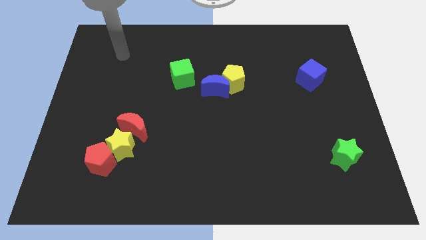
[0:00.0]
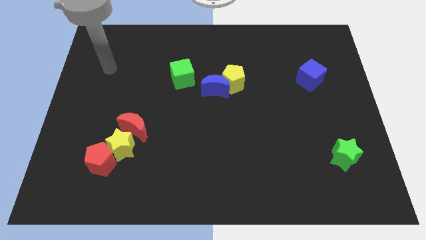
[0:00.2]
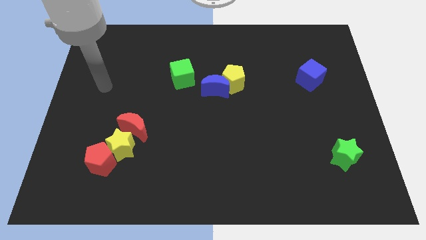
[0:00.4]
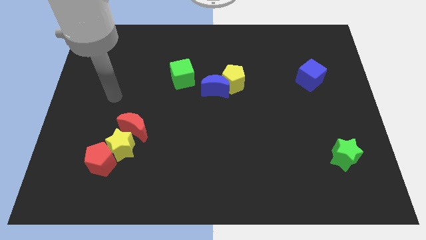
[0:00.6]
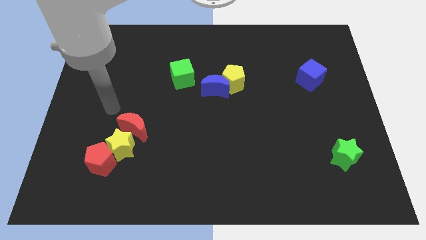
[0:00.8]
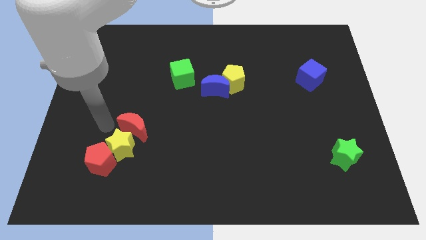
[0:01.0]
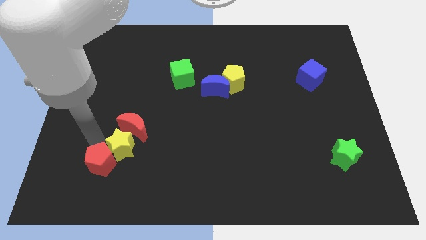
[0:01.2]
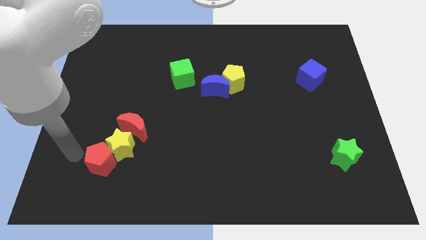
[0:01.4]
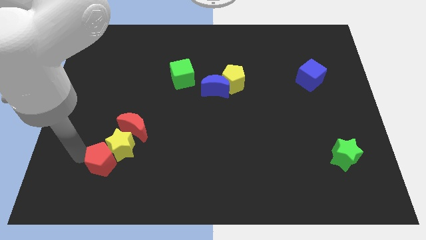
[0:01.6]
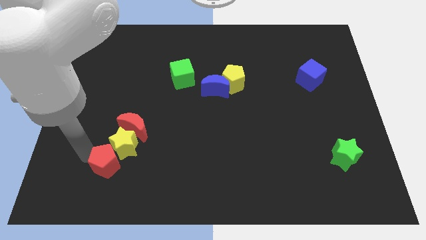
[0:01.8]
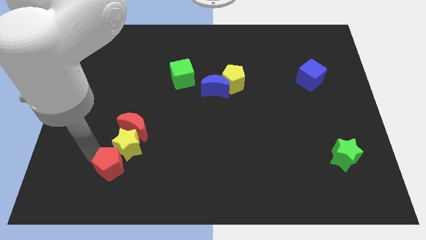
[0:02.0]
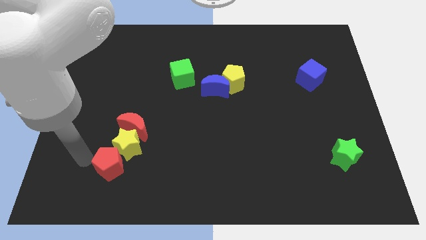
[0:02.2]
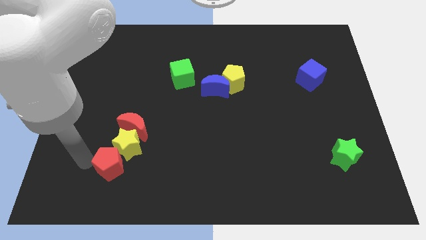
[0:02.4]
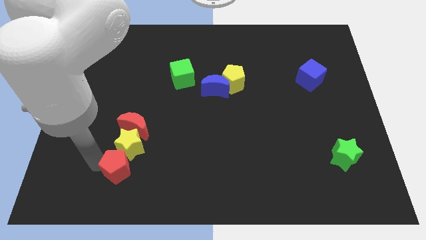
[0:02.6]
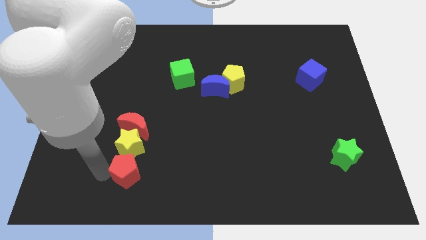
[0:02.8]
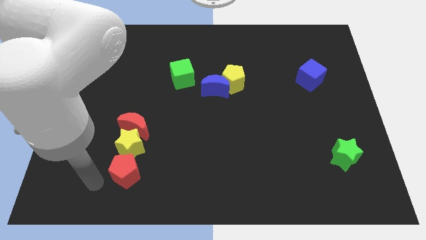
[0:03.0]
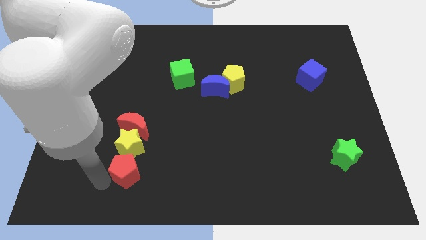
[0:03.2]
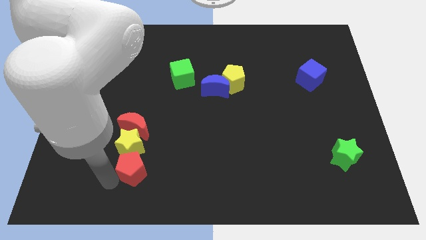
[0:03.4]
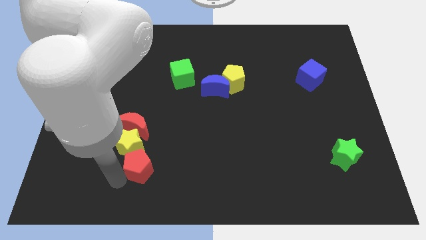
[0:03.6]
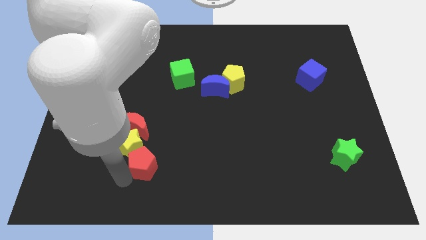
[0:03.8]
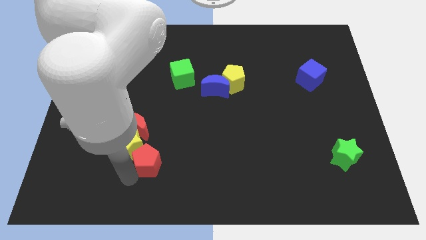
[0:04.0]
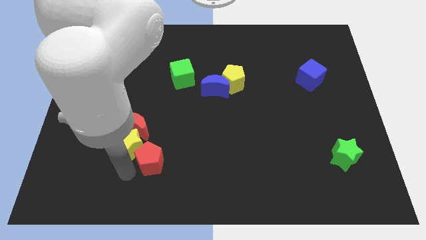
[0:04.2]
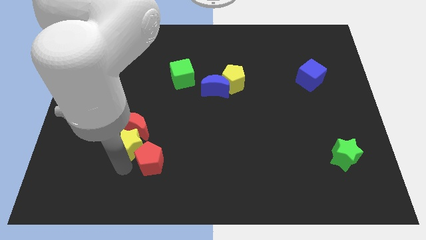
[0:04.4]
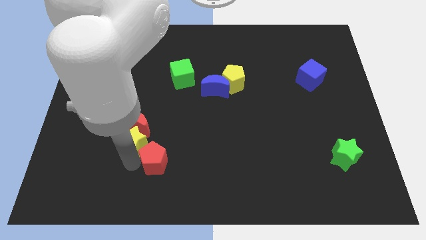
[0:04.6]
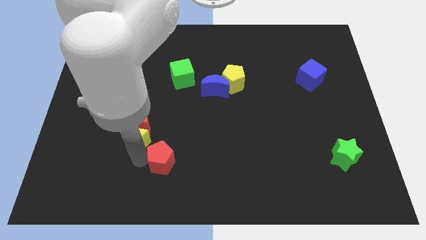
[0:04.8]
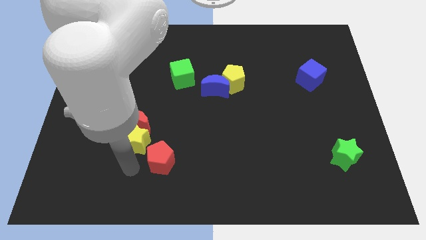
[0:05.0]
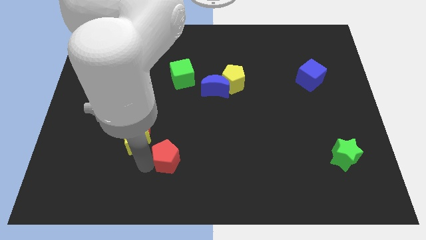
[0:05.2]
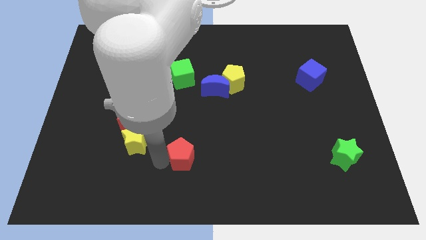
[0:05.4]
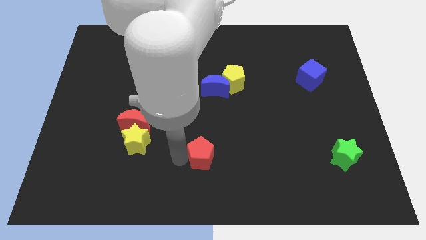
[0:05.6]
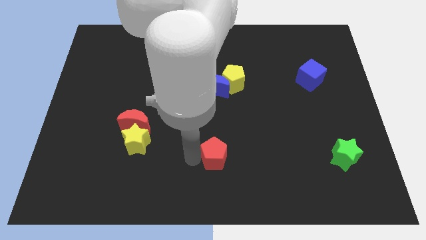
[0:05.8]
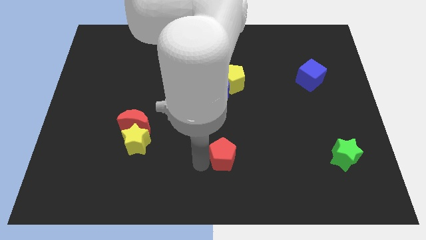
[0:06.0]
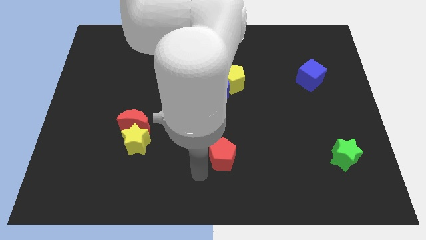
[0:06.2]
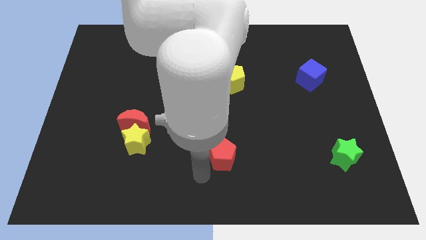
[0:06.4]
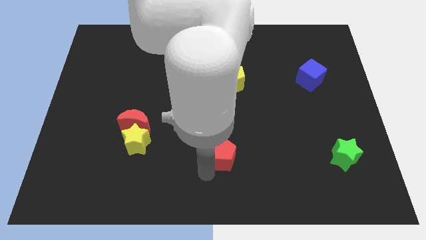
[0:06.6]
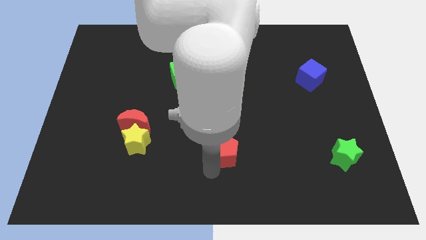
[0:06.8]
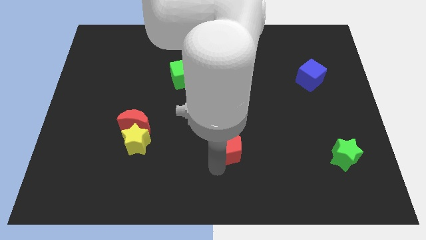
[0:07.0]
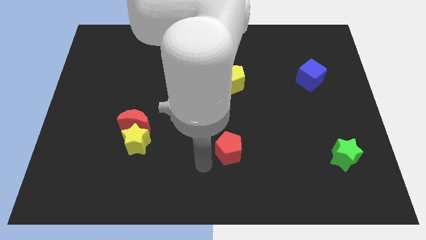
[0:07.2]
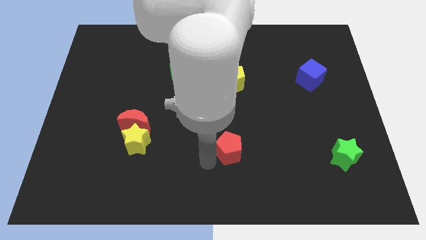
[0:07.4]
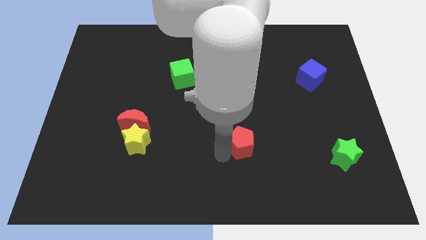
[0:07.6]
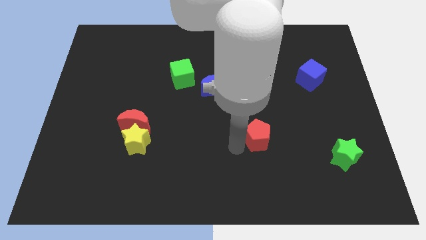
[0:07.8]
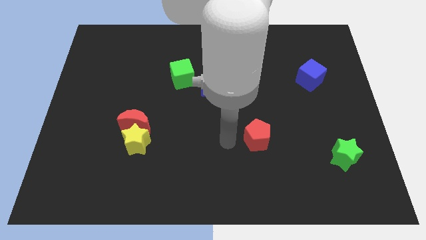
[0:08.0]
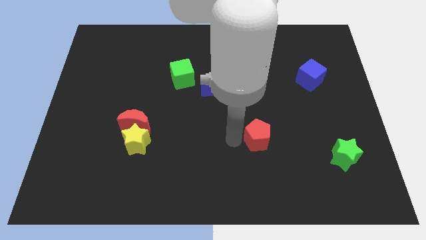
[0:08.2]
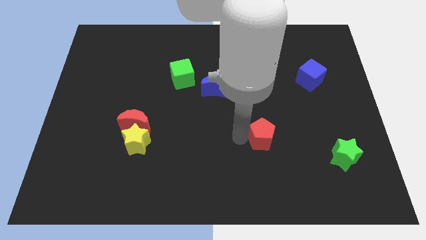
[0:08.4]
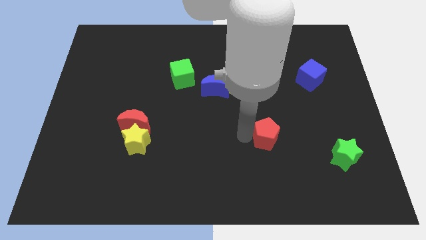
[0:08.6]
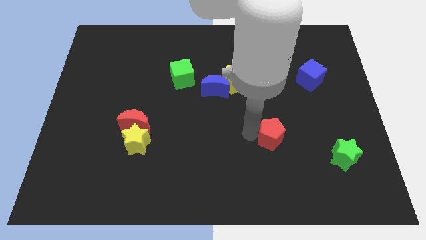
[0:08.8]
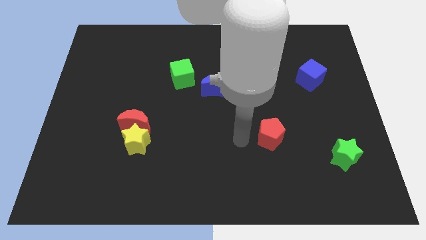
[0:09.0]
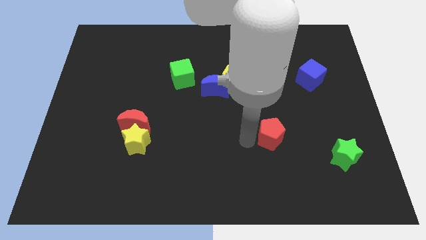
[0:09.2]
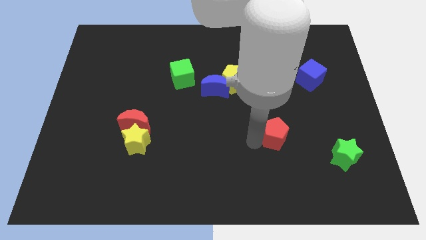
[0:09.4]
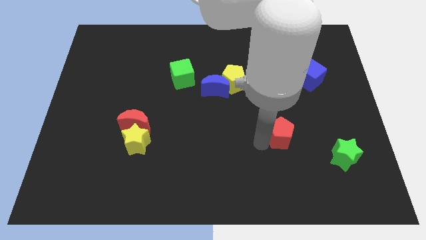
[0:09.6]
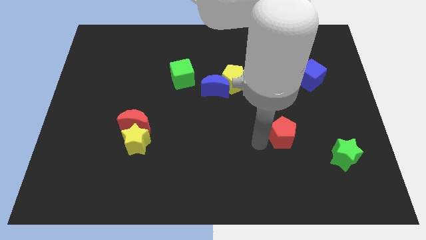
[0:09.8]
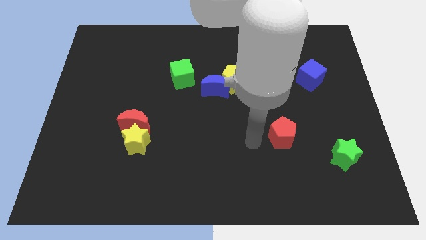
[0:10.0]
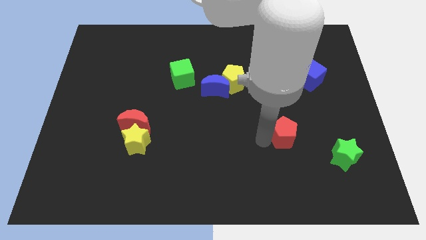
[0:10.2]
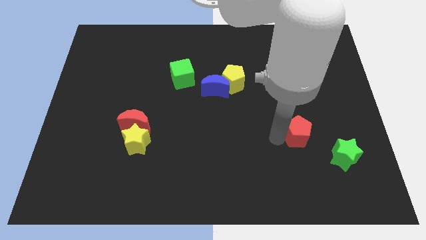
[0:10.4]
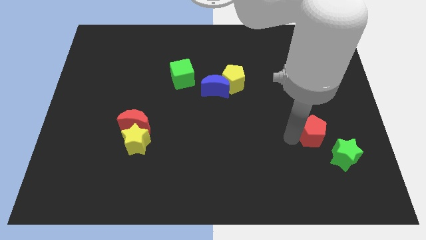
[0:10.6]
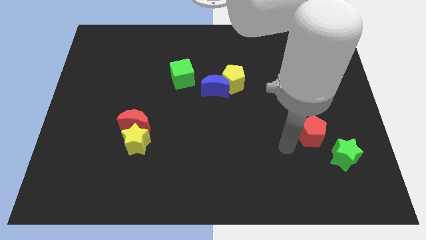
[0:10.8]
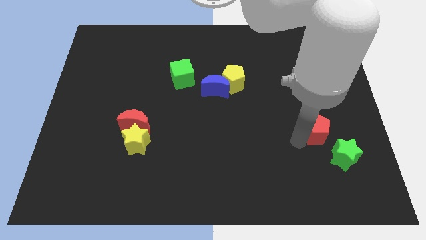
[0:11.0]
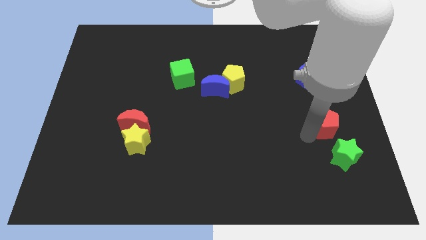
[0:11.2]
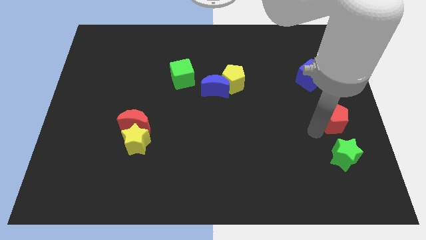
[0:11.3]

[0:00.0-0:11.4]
move the red pentagon to the right side
